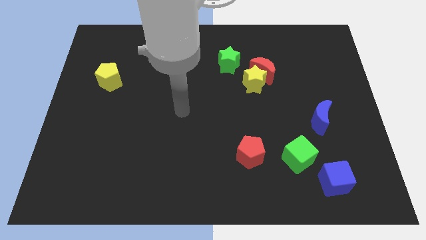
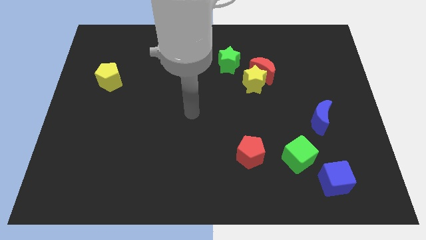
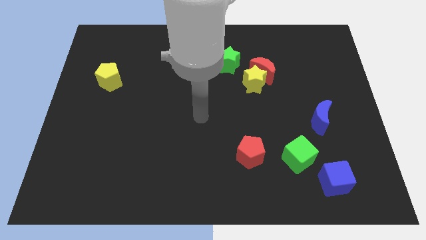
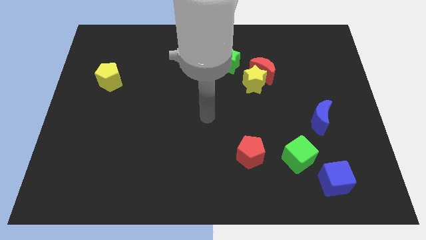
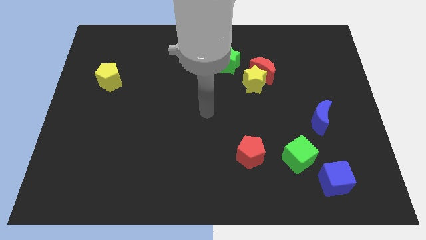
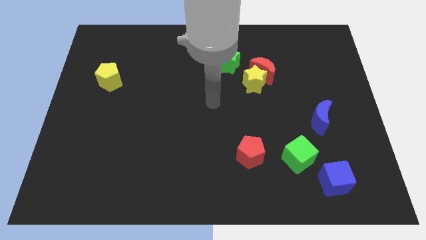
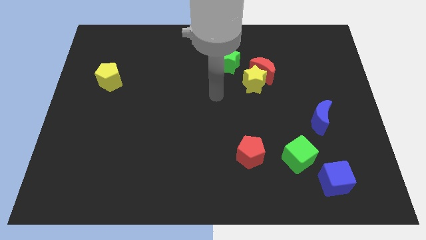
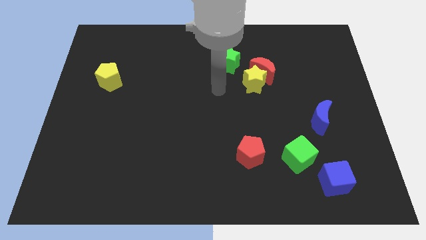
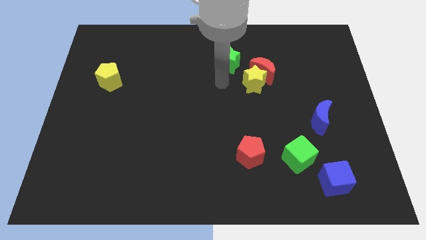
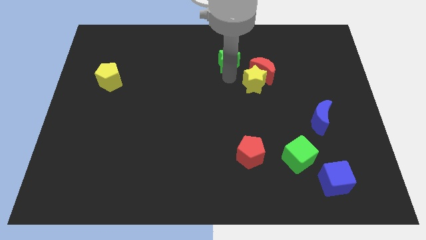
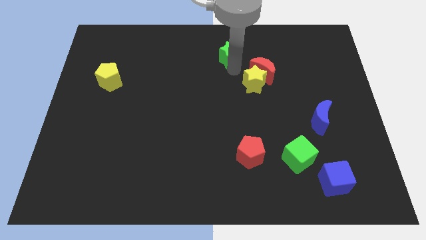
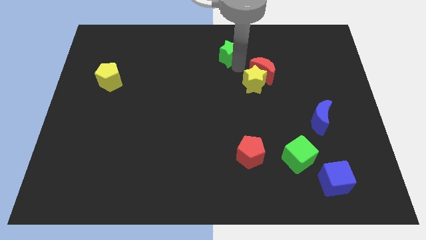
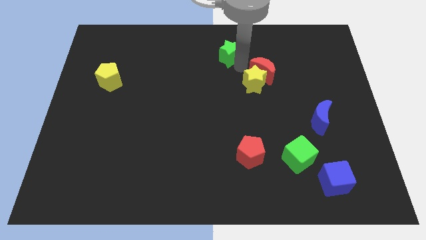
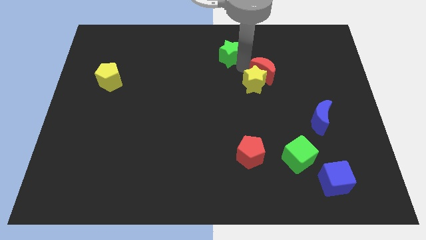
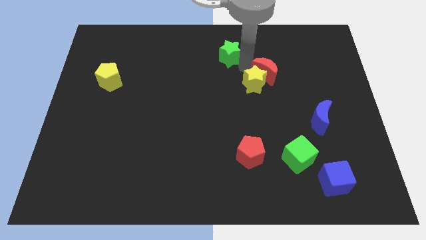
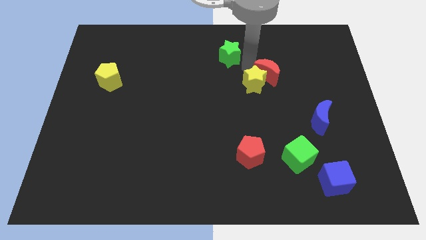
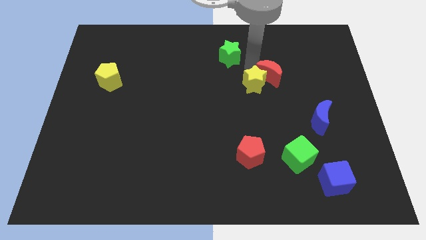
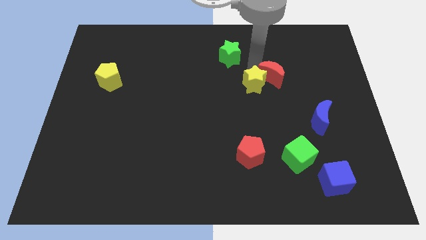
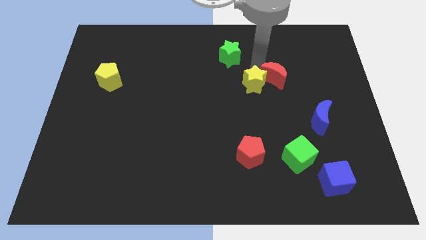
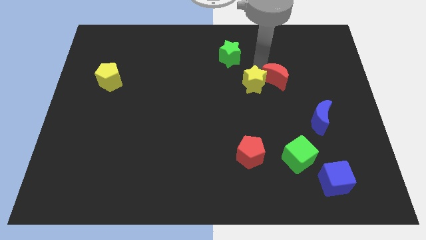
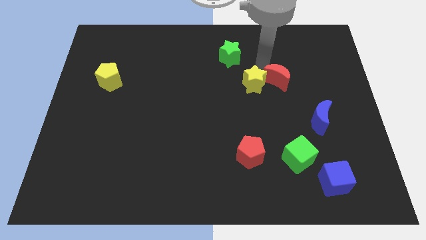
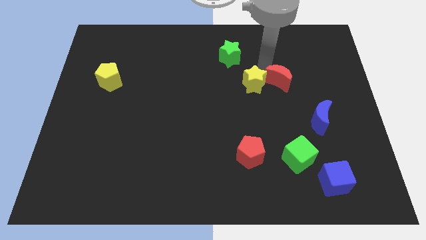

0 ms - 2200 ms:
pull the red moon apart from the yellow star and green star

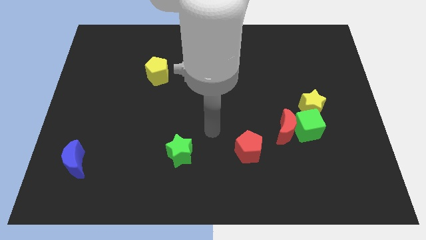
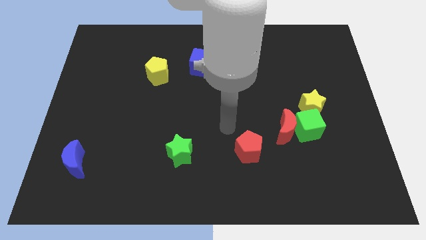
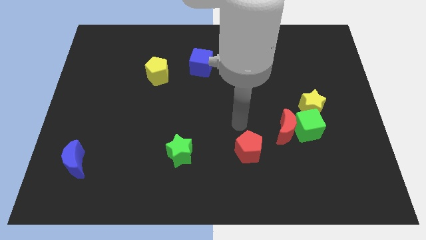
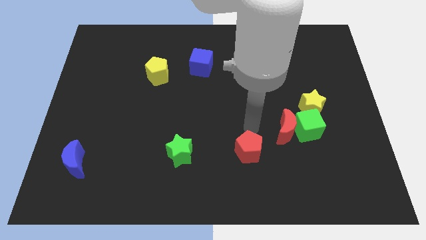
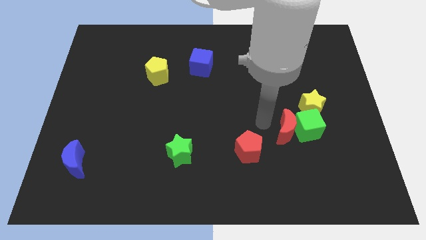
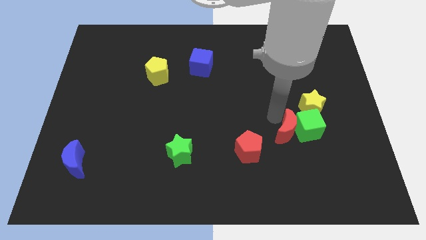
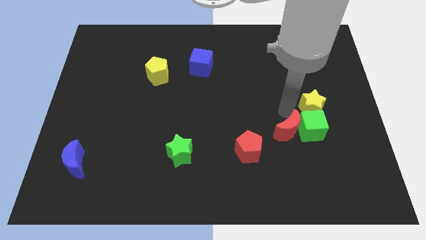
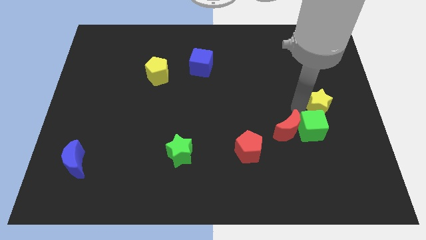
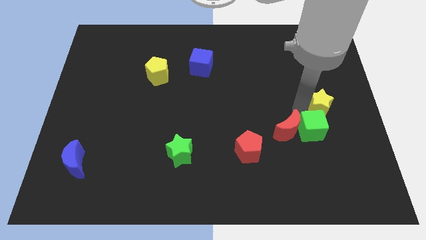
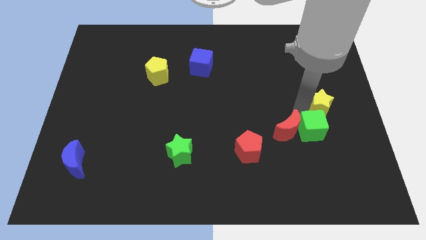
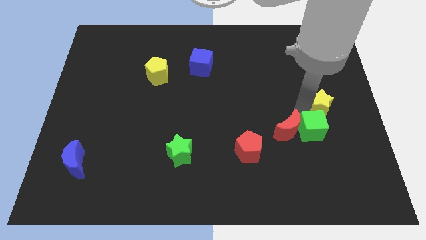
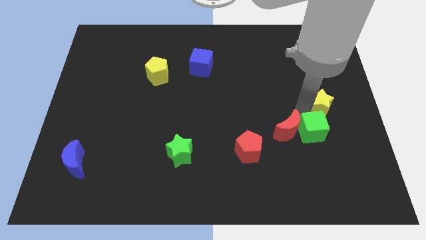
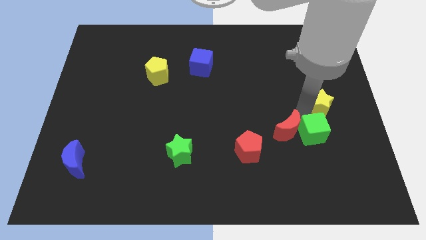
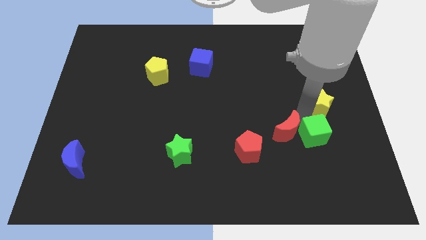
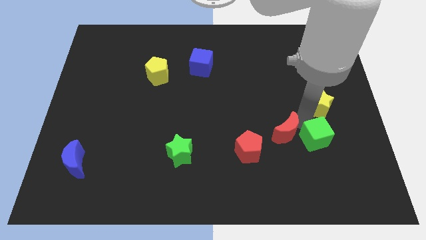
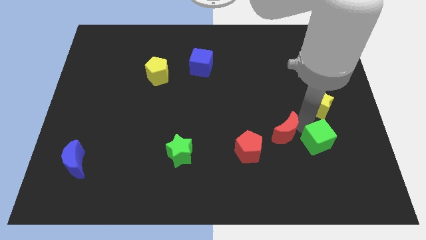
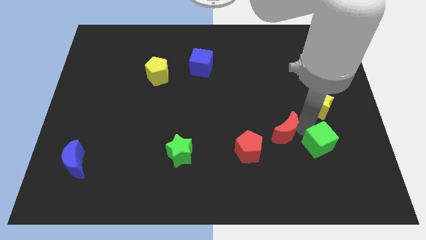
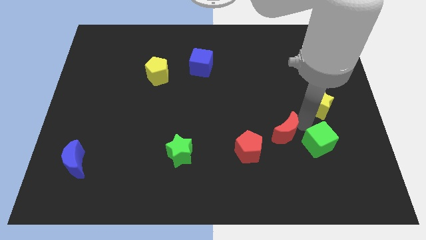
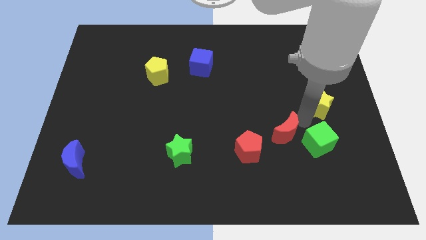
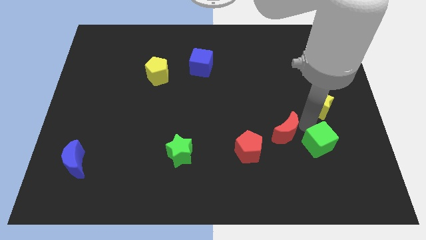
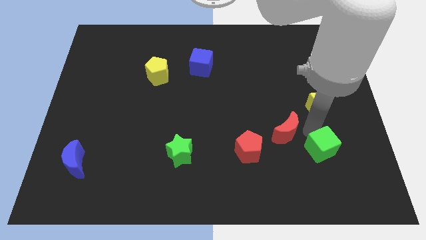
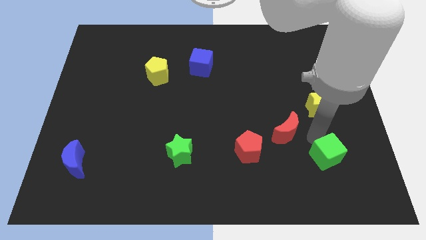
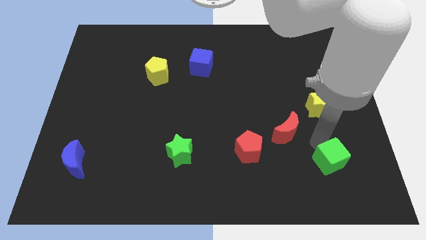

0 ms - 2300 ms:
pull the green cube apart from the red moon and yellow star

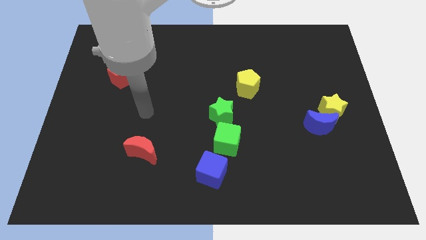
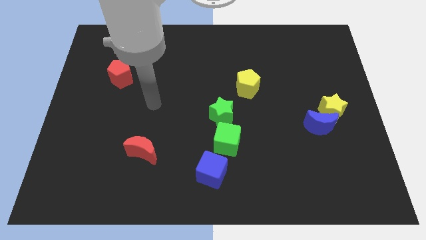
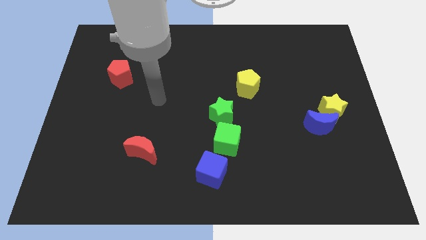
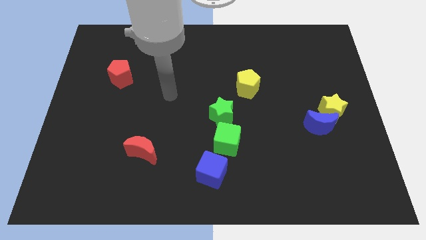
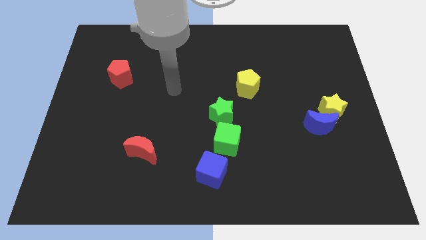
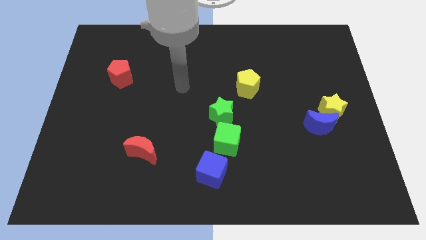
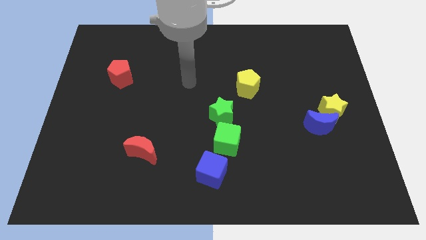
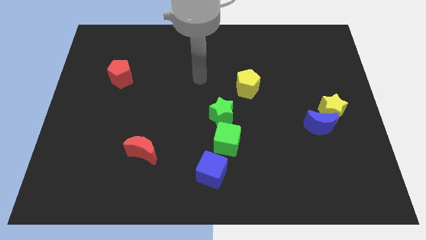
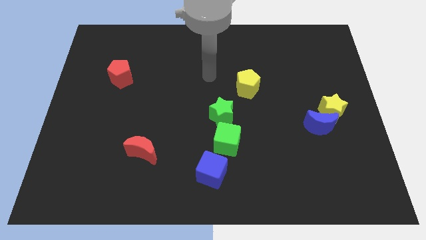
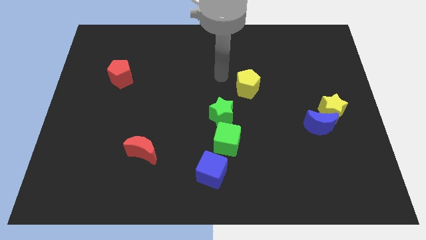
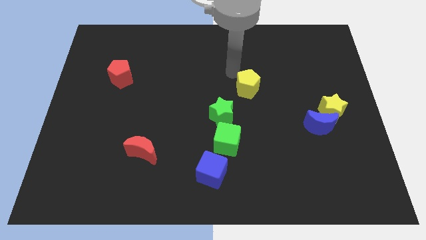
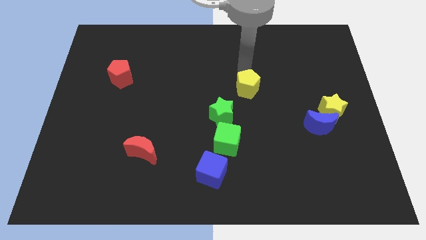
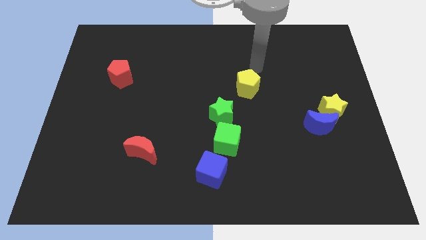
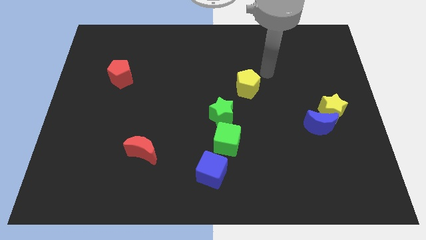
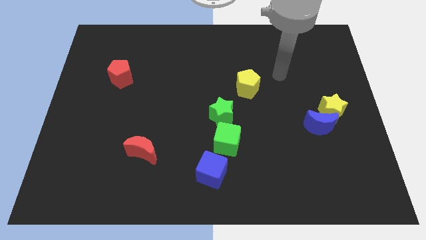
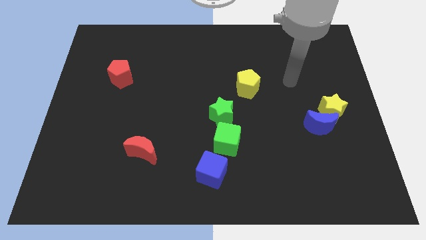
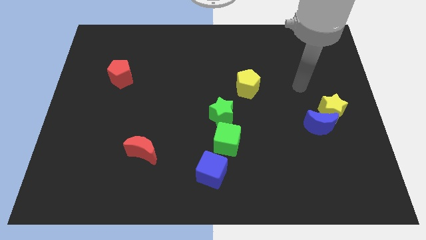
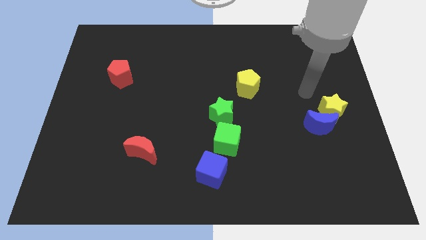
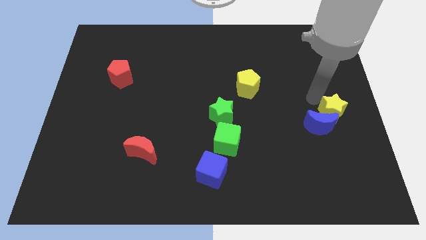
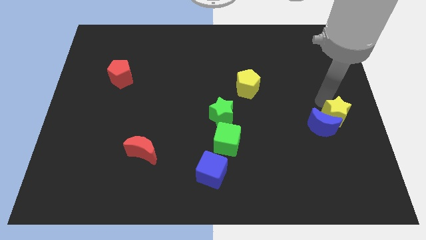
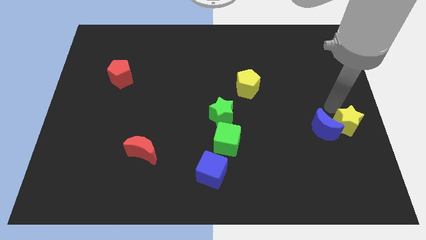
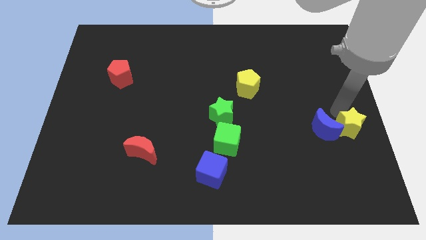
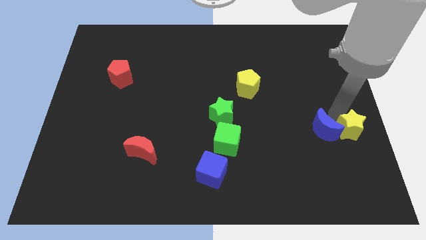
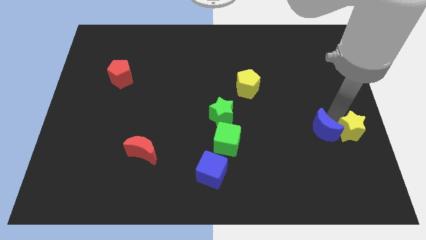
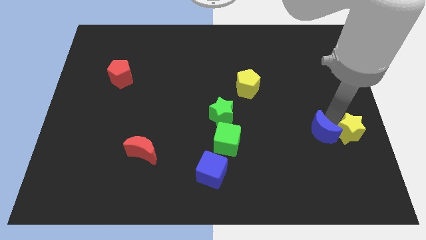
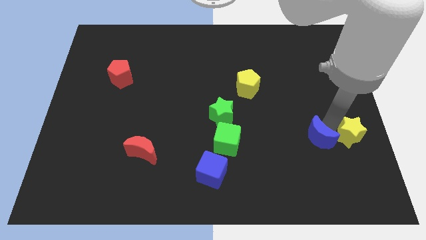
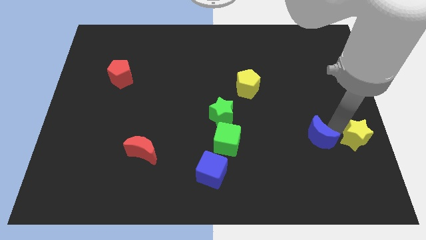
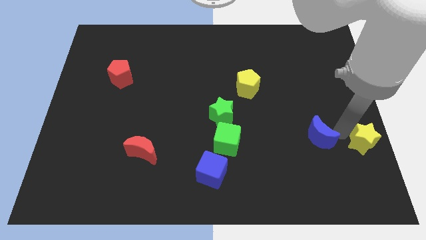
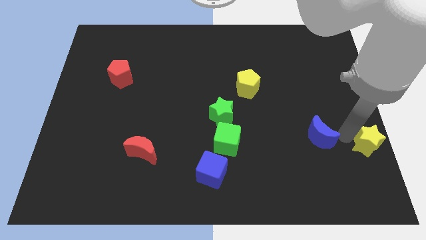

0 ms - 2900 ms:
separate the blue moon from the yellow star

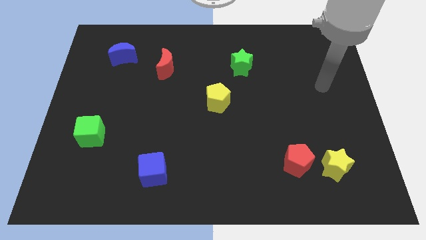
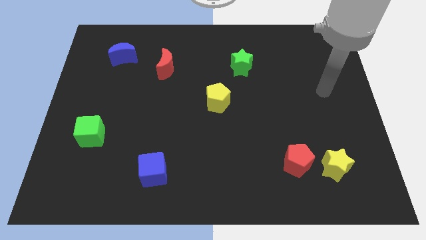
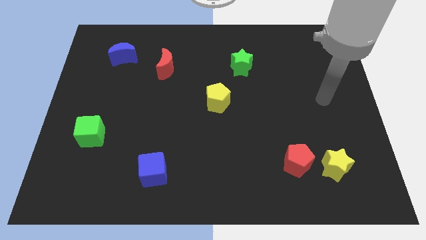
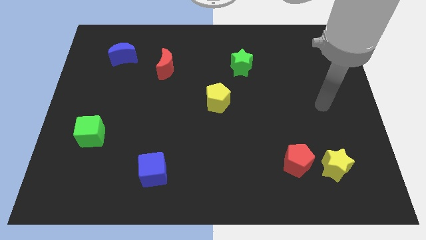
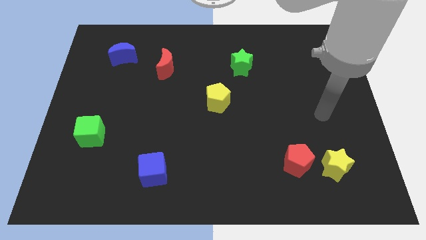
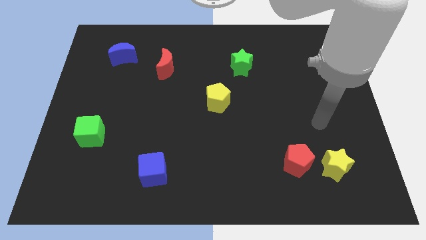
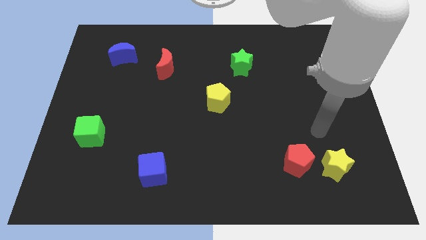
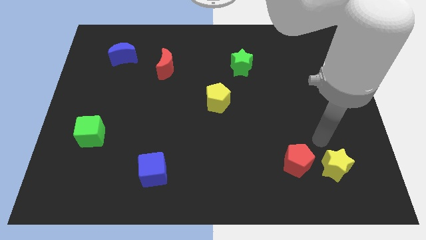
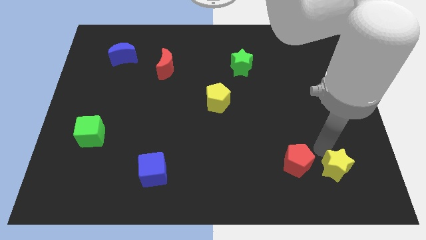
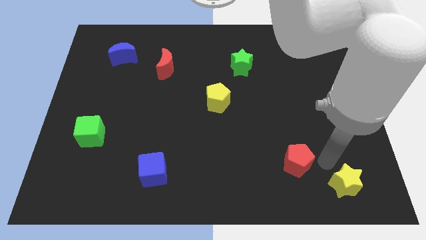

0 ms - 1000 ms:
pull the red pentagon apart from the yellow star

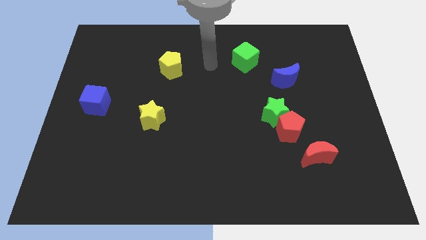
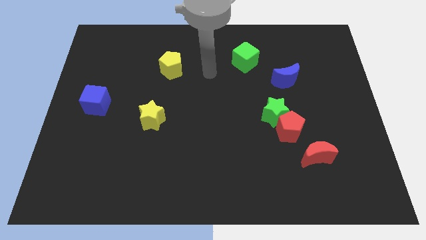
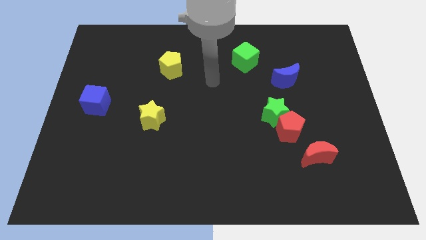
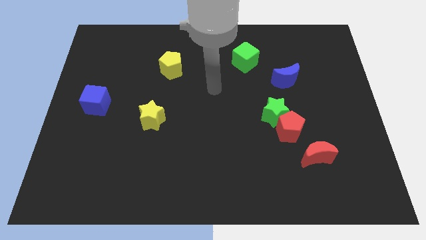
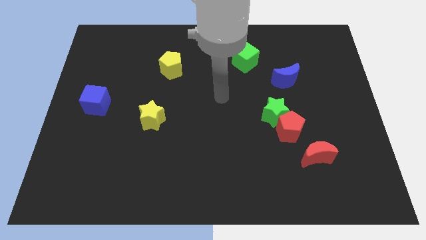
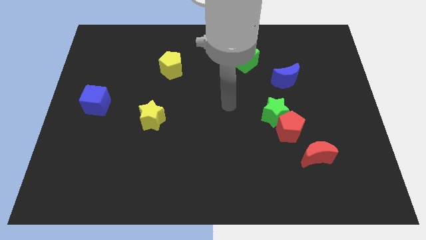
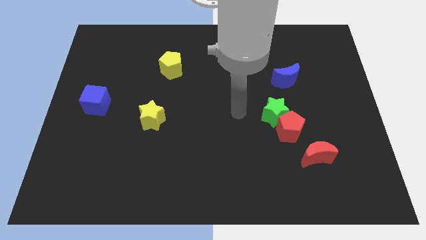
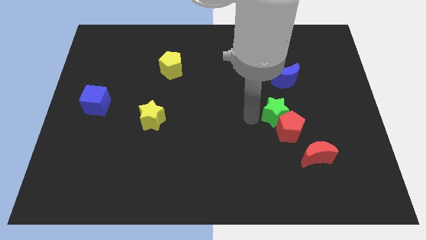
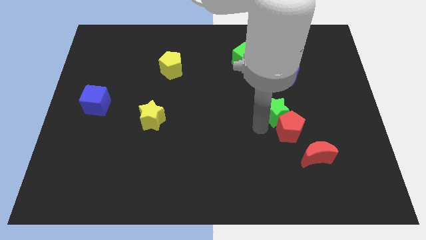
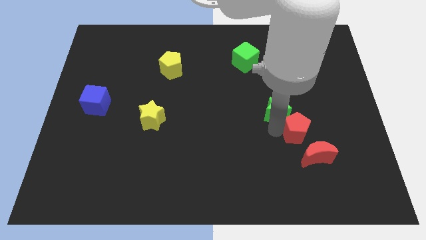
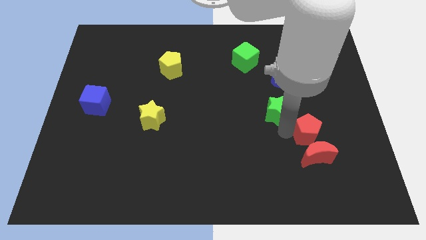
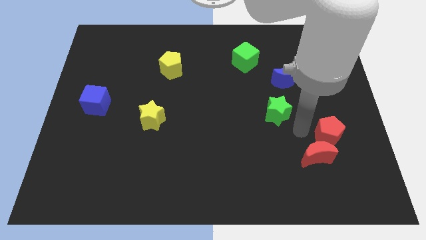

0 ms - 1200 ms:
pull the green star apart from the red pentagon
